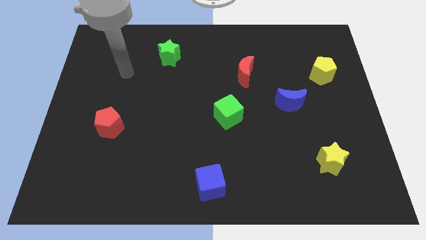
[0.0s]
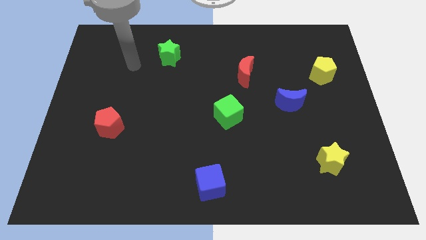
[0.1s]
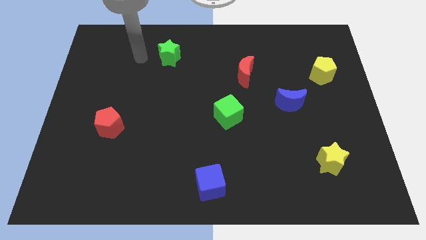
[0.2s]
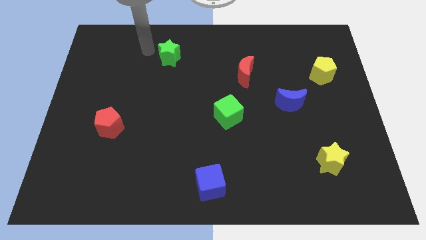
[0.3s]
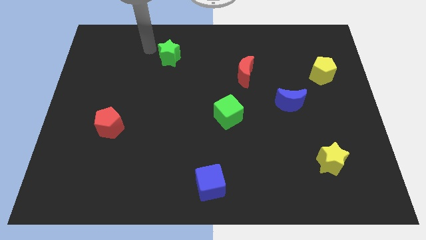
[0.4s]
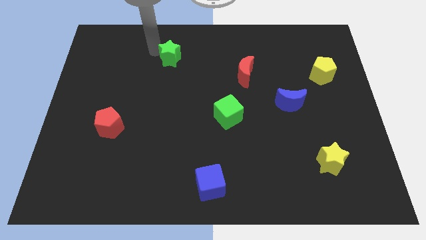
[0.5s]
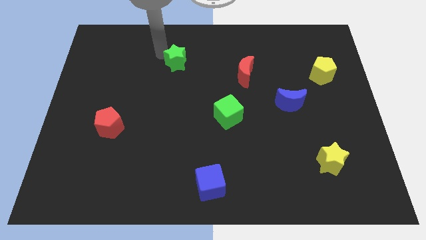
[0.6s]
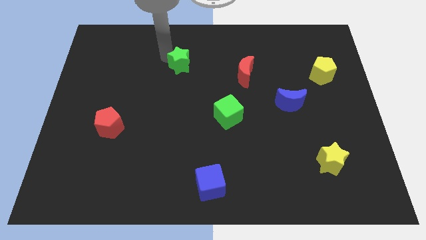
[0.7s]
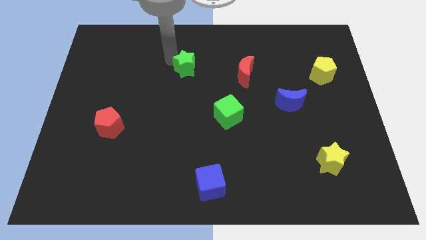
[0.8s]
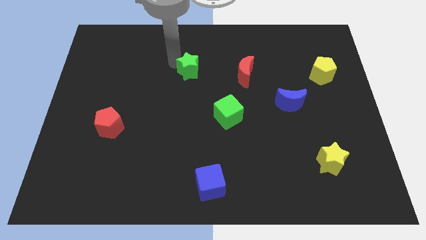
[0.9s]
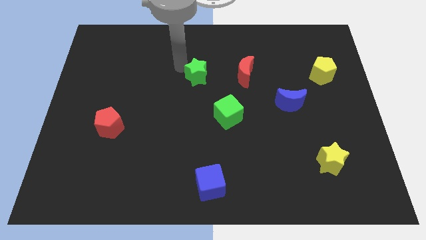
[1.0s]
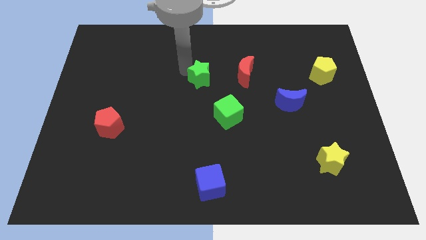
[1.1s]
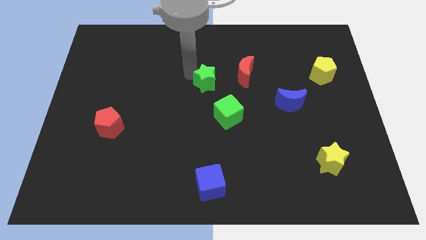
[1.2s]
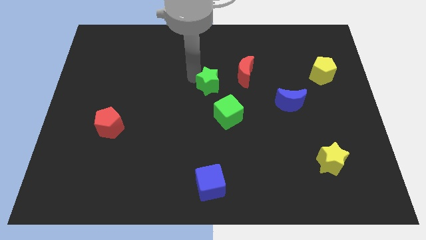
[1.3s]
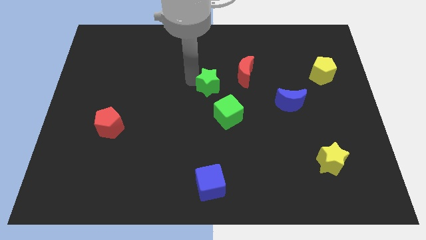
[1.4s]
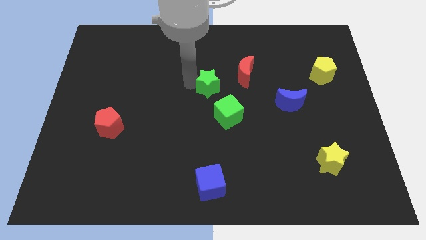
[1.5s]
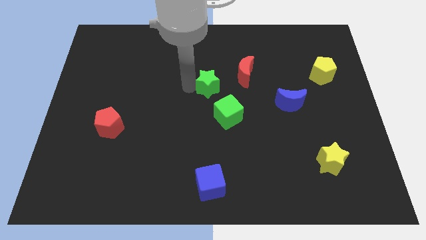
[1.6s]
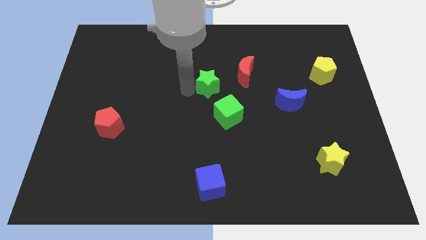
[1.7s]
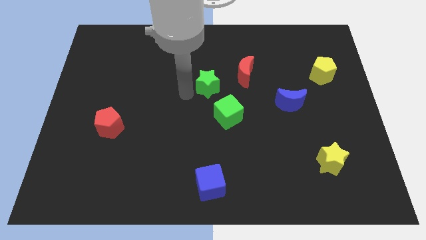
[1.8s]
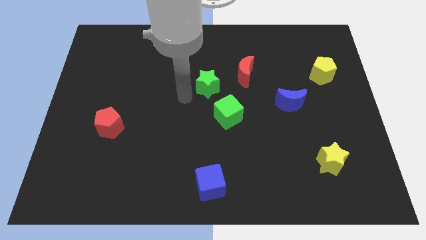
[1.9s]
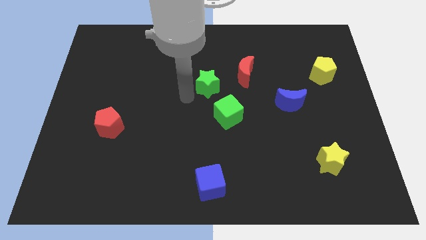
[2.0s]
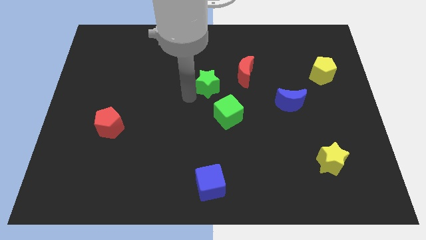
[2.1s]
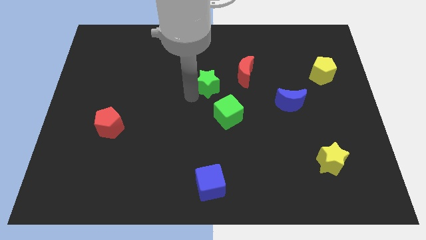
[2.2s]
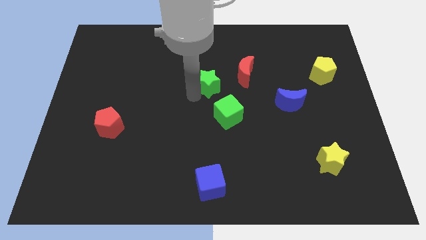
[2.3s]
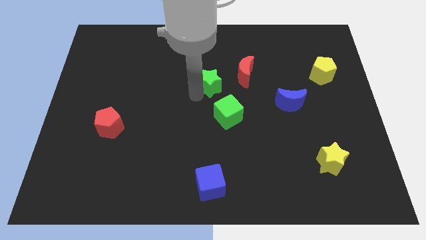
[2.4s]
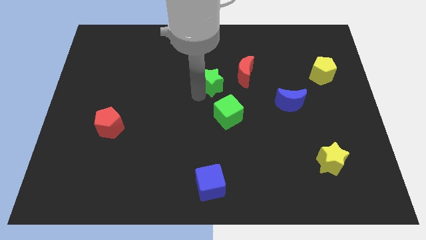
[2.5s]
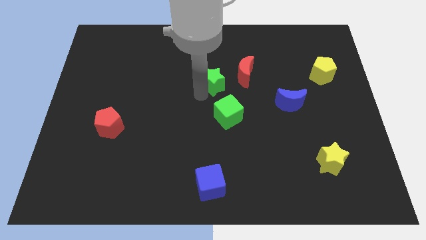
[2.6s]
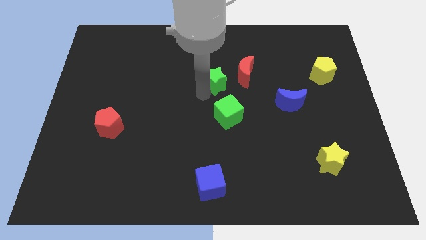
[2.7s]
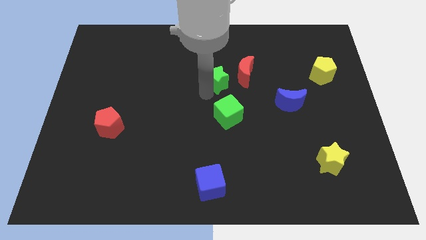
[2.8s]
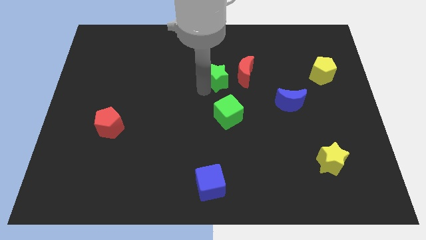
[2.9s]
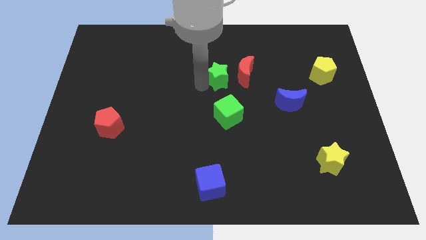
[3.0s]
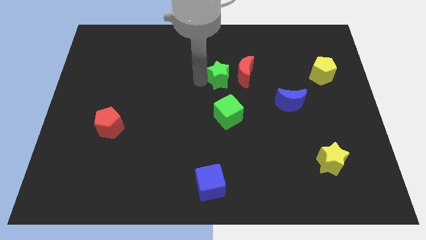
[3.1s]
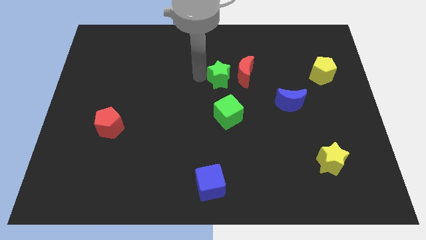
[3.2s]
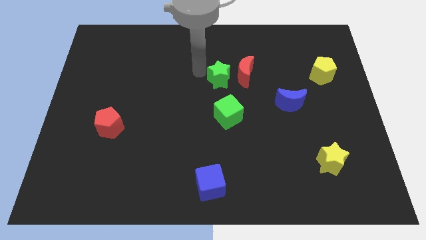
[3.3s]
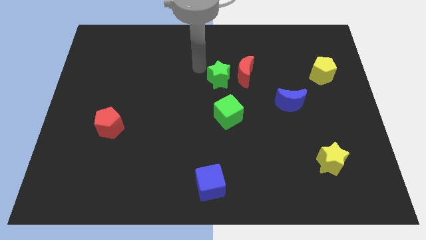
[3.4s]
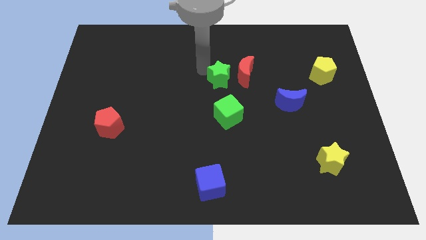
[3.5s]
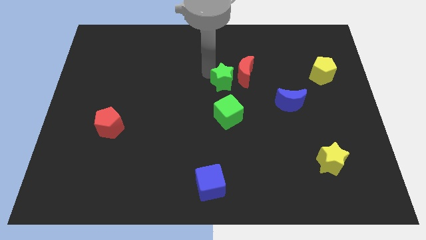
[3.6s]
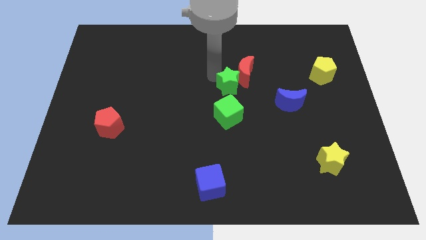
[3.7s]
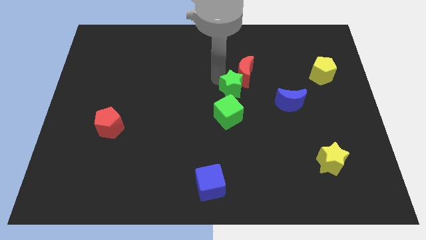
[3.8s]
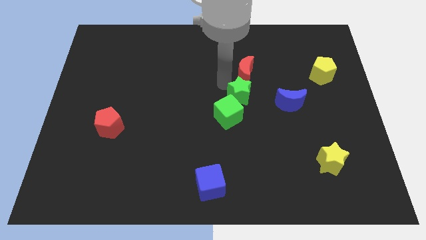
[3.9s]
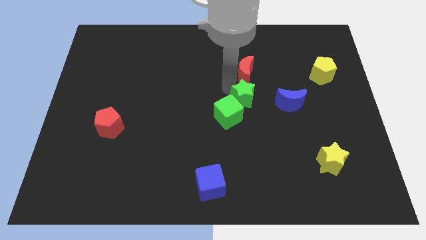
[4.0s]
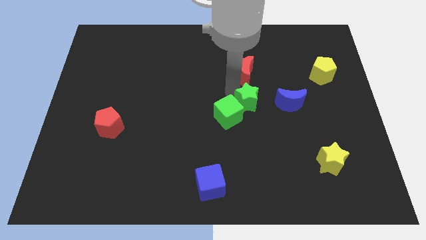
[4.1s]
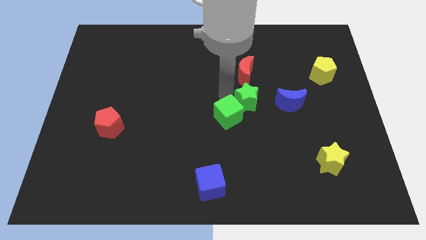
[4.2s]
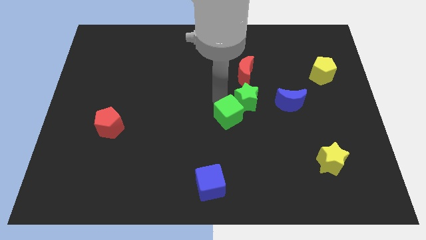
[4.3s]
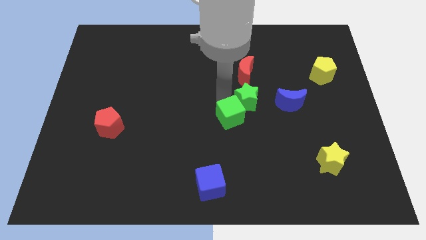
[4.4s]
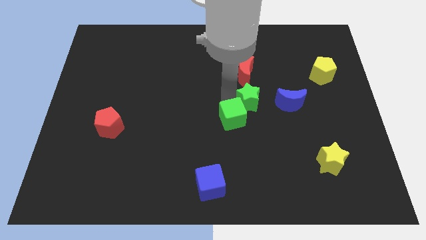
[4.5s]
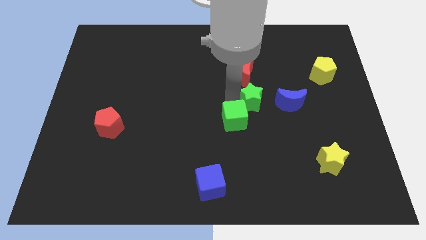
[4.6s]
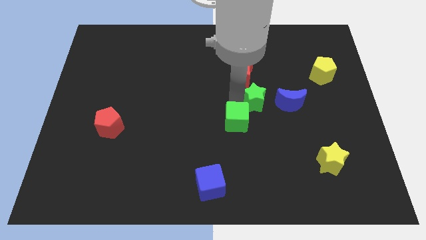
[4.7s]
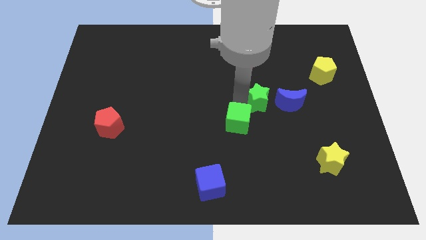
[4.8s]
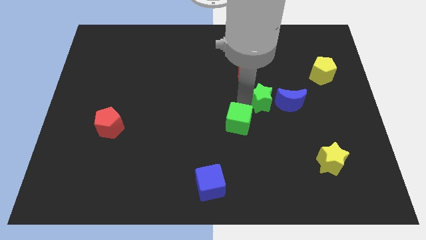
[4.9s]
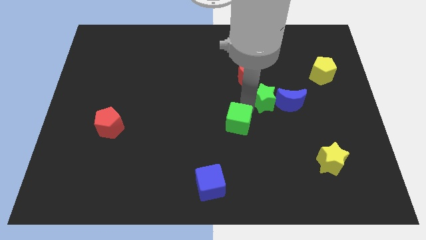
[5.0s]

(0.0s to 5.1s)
slide the green star towards the blue moon

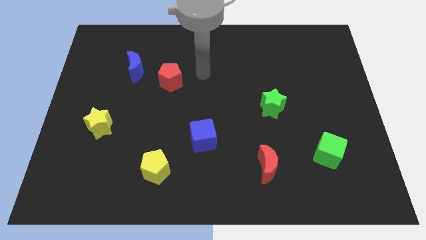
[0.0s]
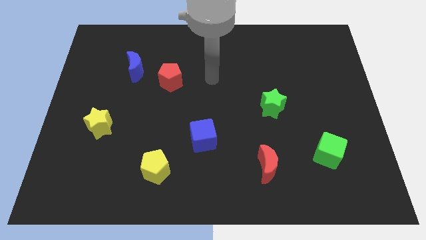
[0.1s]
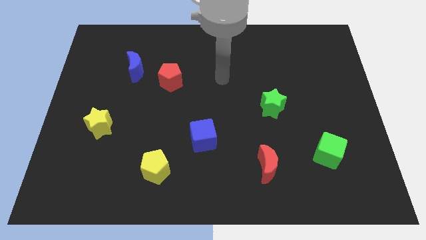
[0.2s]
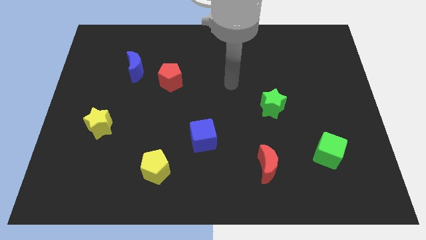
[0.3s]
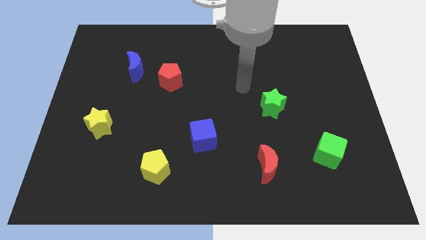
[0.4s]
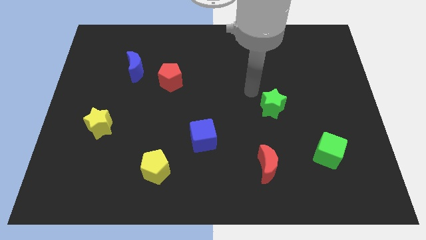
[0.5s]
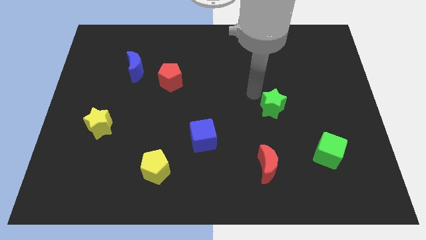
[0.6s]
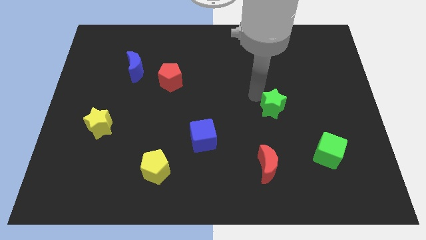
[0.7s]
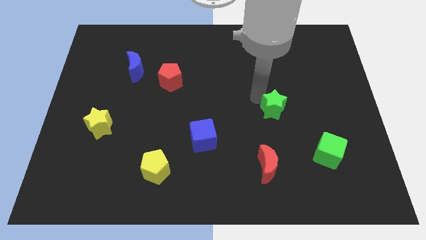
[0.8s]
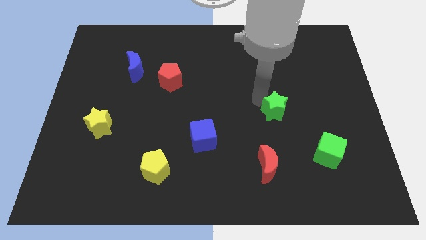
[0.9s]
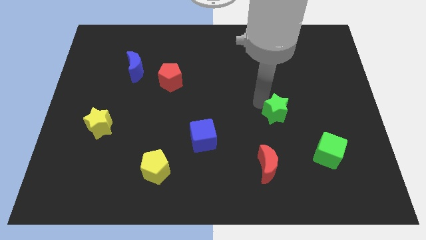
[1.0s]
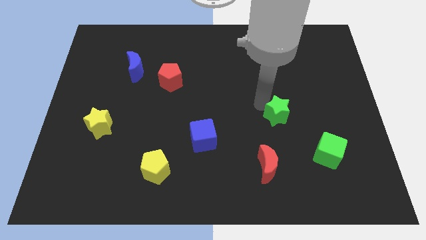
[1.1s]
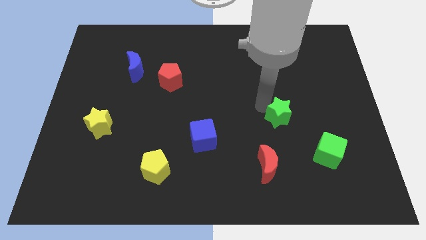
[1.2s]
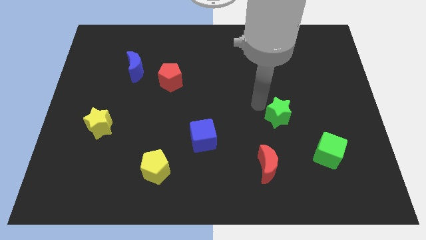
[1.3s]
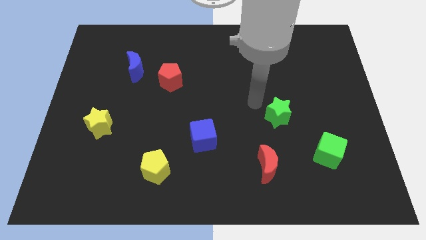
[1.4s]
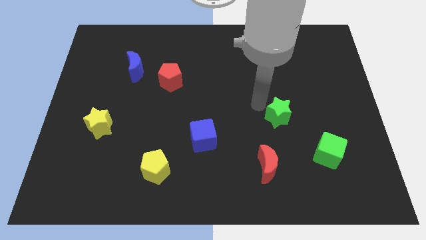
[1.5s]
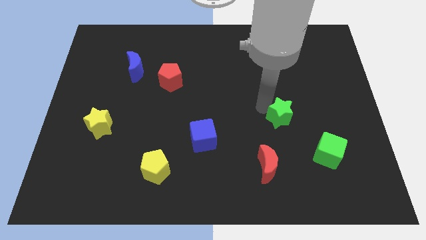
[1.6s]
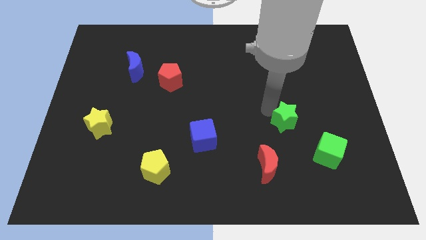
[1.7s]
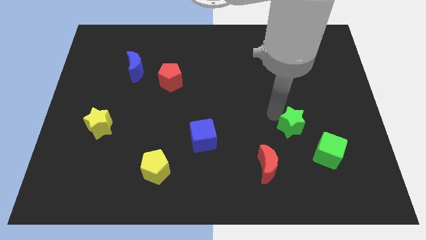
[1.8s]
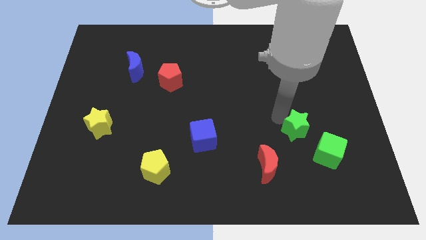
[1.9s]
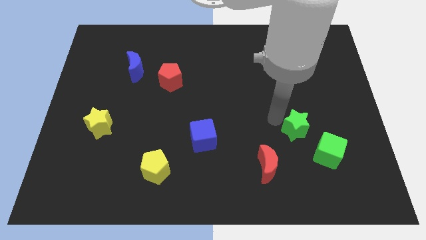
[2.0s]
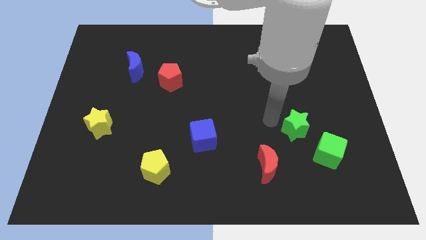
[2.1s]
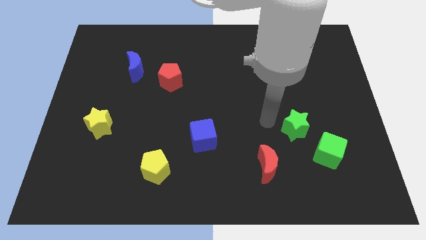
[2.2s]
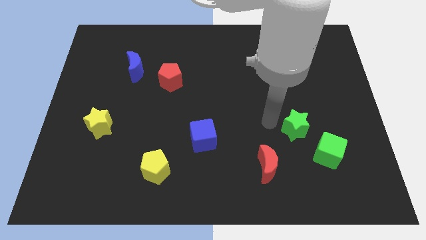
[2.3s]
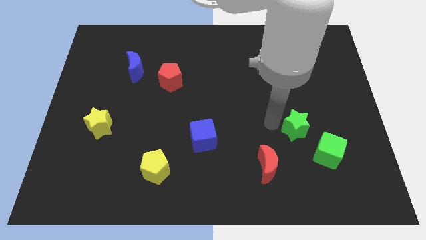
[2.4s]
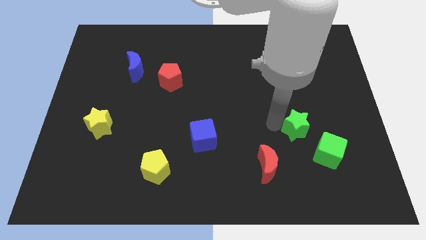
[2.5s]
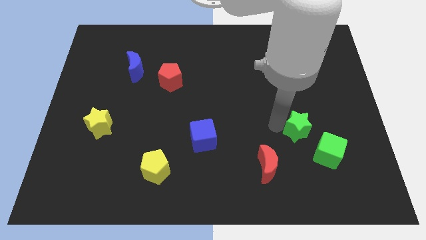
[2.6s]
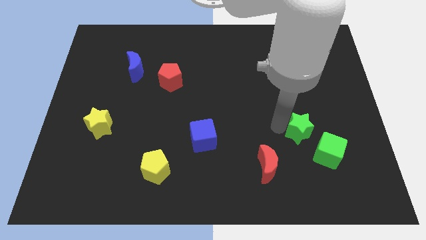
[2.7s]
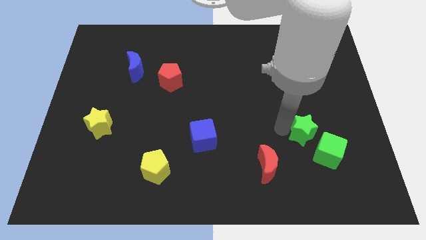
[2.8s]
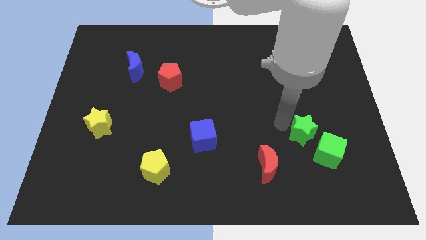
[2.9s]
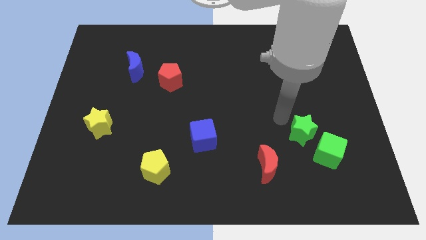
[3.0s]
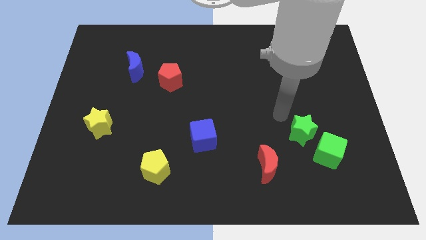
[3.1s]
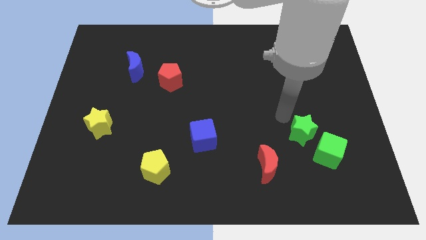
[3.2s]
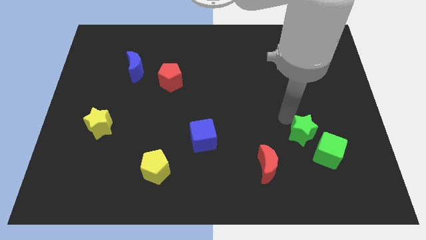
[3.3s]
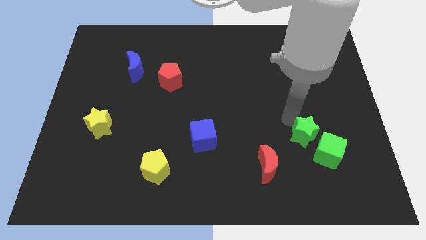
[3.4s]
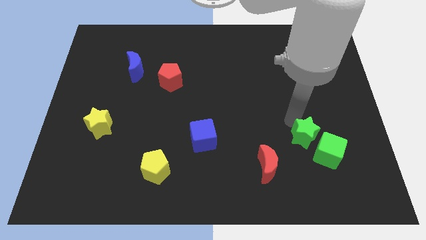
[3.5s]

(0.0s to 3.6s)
slide the green star next to the green cube
